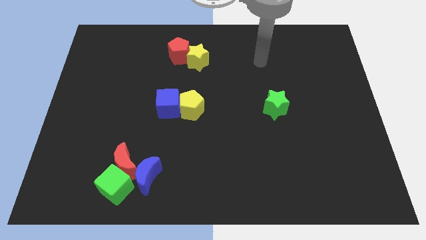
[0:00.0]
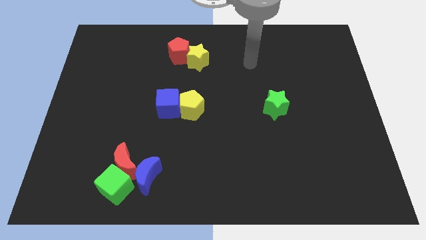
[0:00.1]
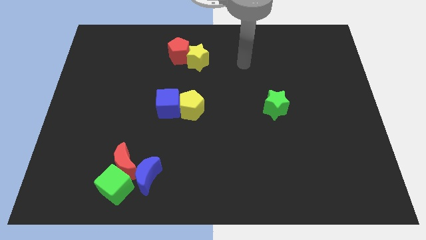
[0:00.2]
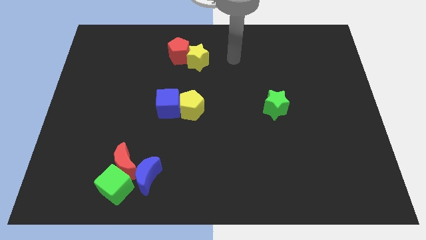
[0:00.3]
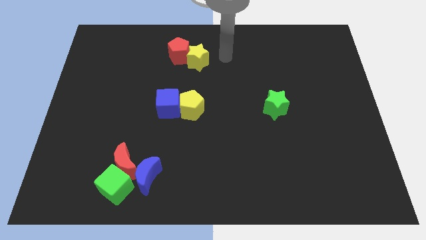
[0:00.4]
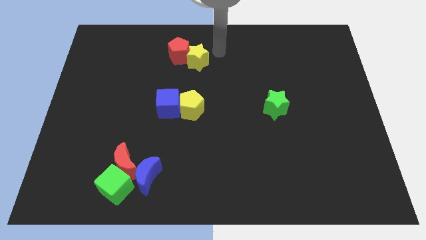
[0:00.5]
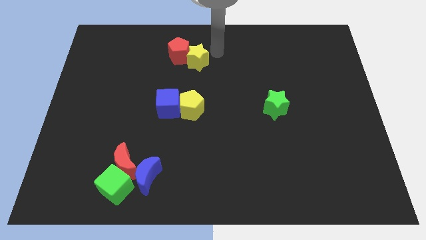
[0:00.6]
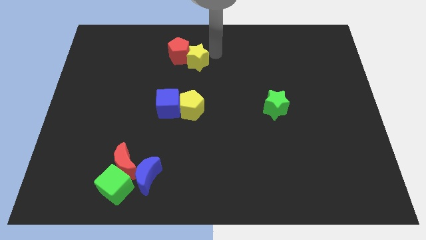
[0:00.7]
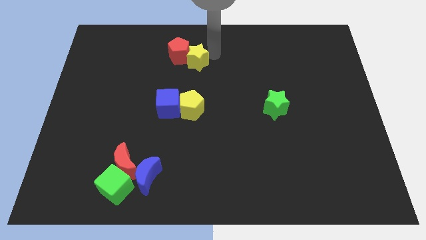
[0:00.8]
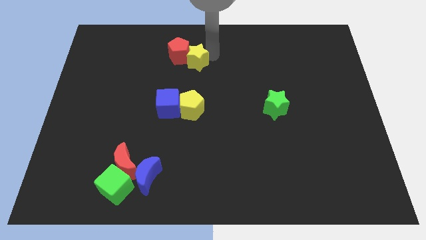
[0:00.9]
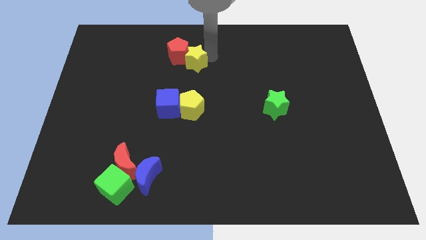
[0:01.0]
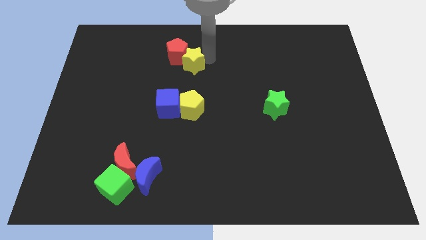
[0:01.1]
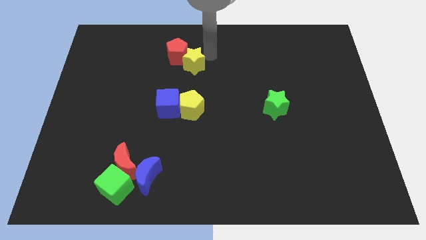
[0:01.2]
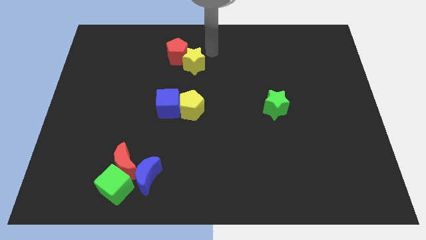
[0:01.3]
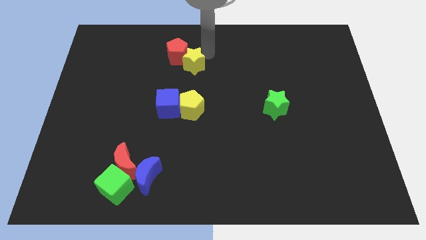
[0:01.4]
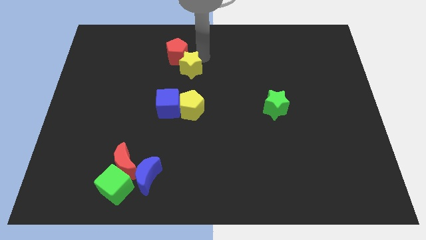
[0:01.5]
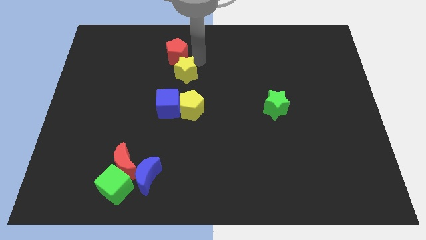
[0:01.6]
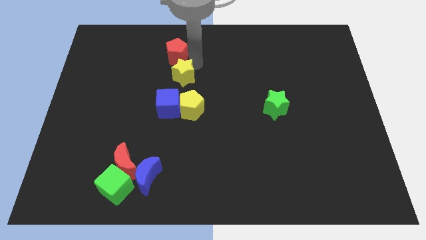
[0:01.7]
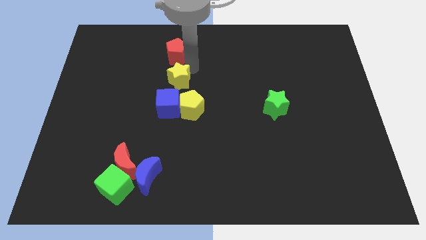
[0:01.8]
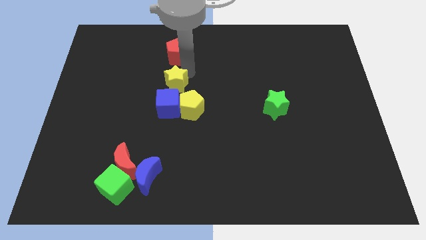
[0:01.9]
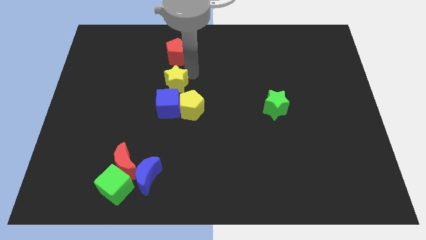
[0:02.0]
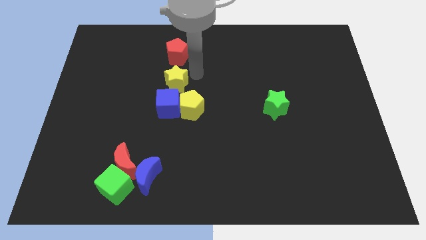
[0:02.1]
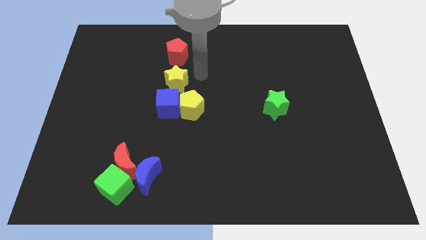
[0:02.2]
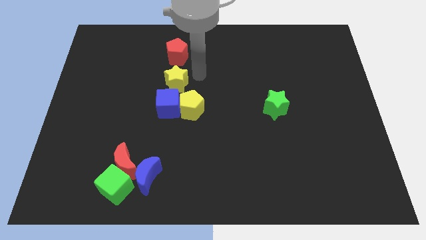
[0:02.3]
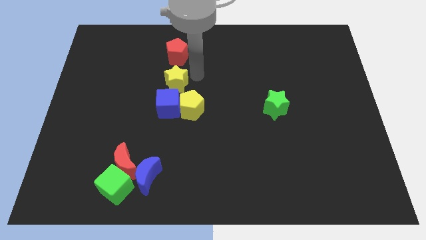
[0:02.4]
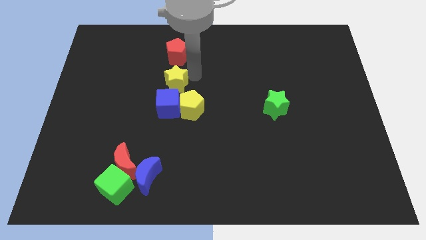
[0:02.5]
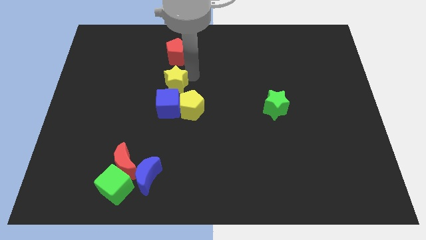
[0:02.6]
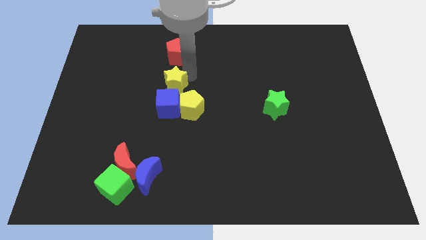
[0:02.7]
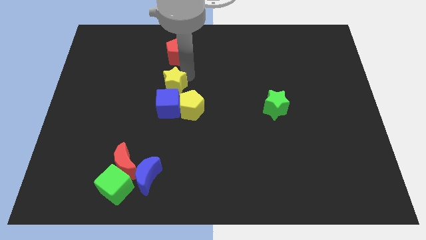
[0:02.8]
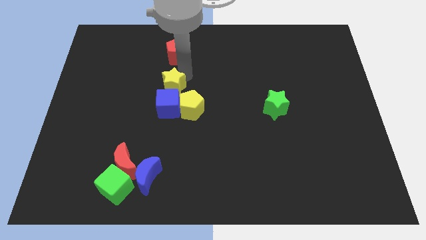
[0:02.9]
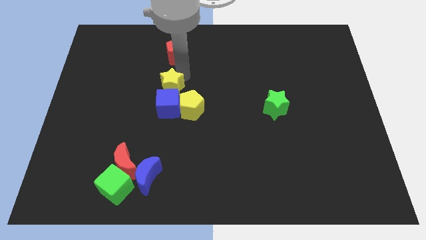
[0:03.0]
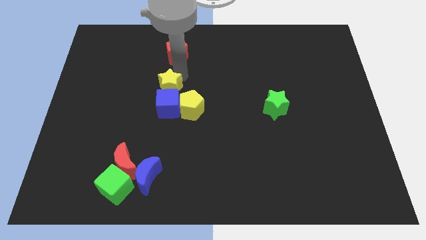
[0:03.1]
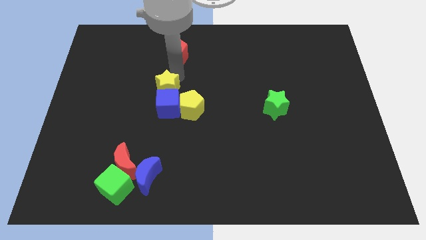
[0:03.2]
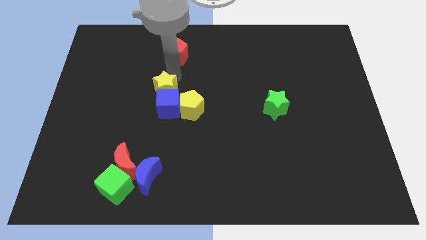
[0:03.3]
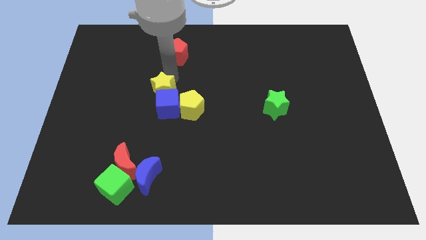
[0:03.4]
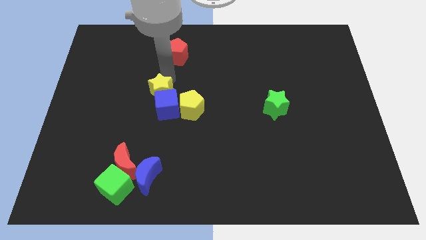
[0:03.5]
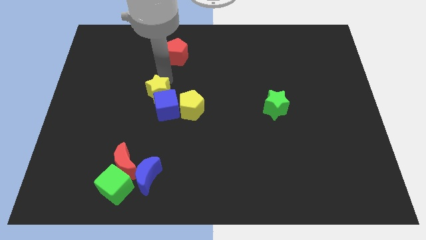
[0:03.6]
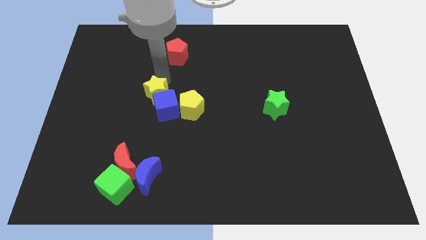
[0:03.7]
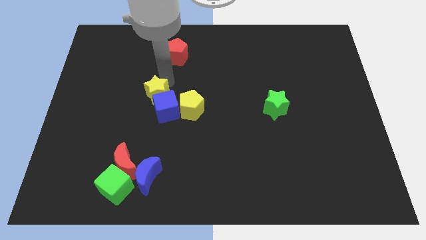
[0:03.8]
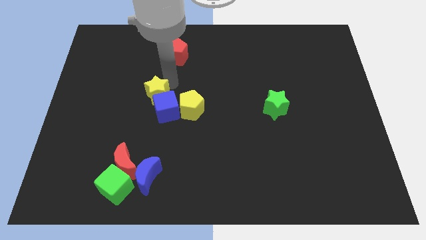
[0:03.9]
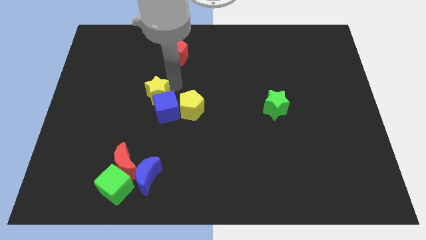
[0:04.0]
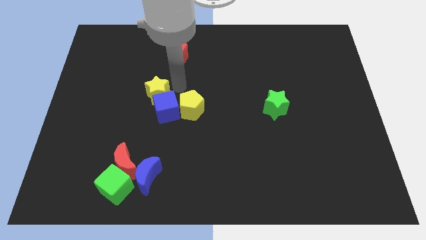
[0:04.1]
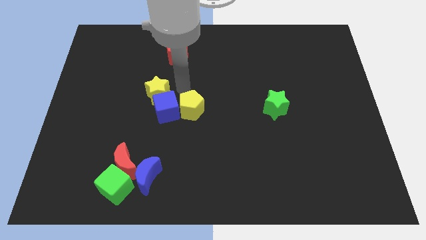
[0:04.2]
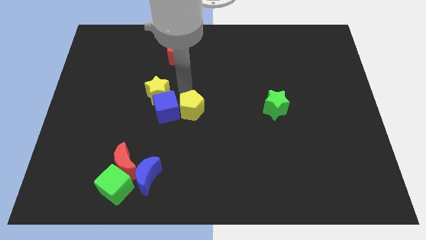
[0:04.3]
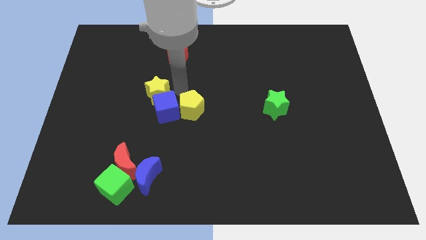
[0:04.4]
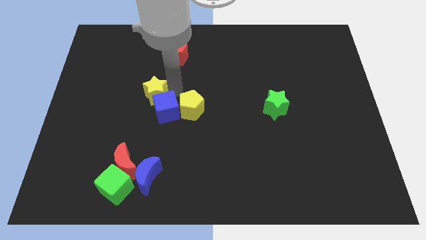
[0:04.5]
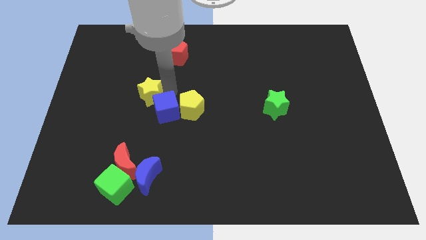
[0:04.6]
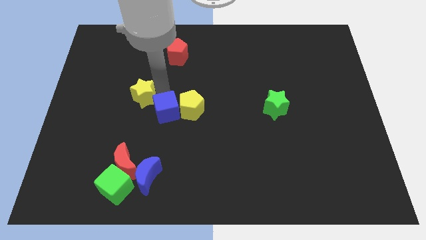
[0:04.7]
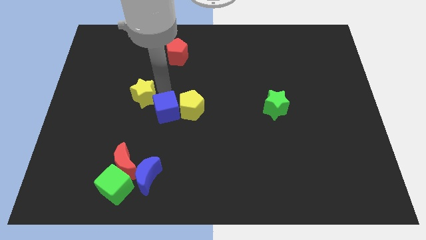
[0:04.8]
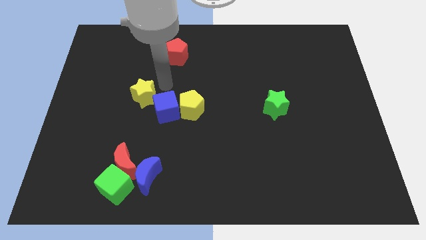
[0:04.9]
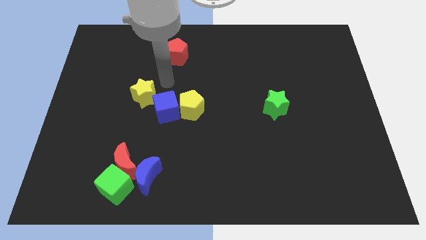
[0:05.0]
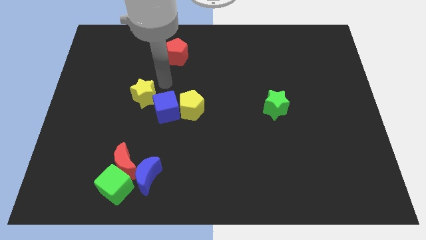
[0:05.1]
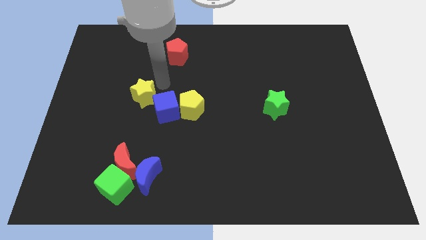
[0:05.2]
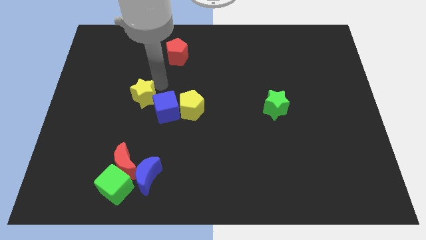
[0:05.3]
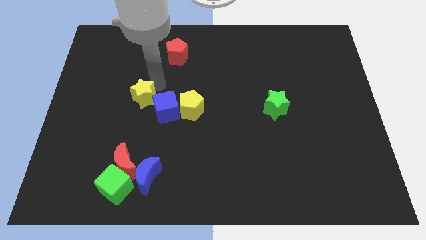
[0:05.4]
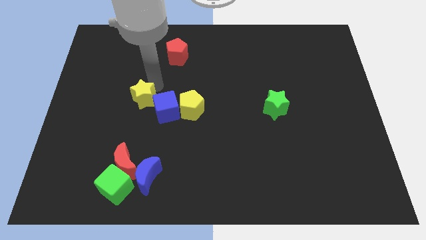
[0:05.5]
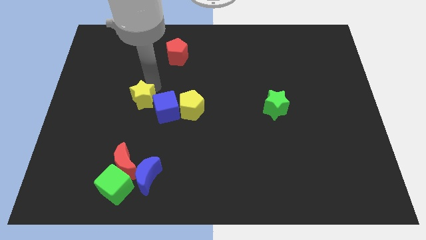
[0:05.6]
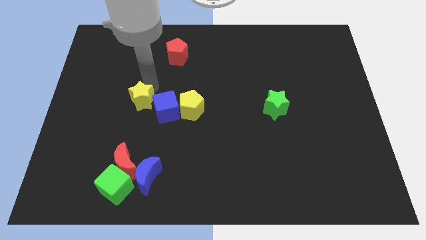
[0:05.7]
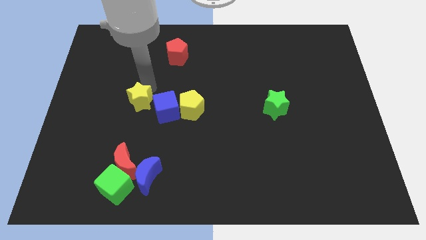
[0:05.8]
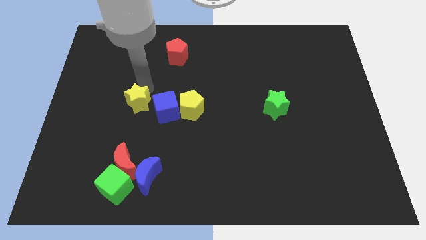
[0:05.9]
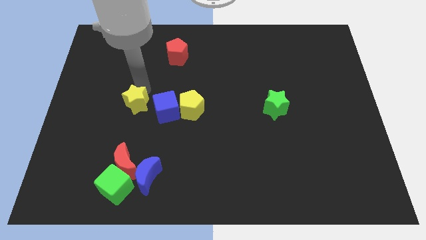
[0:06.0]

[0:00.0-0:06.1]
slide the yellow star downwards and then to the left

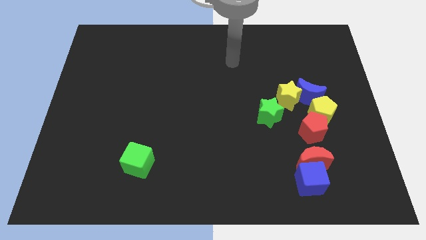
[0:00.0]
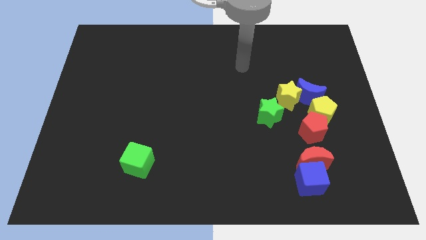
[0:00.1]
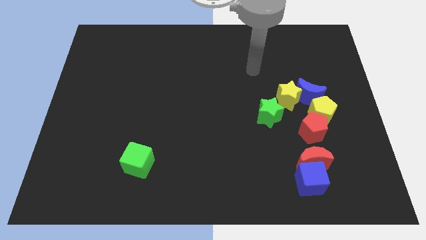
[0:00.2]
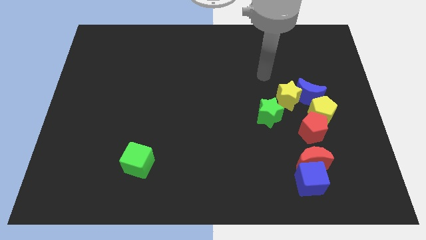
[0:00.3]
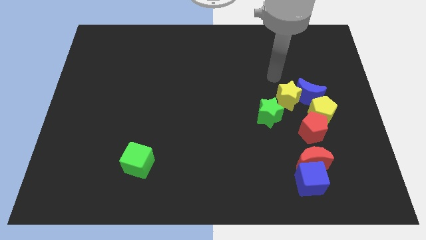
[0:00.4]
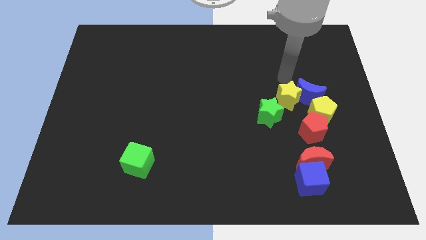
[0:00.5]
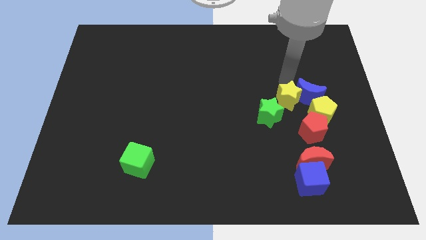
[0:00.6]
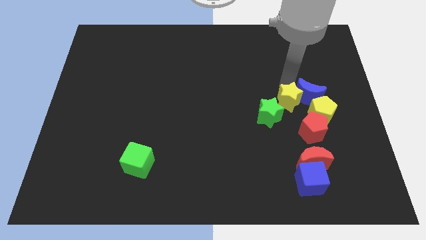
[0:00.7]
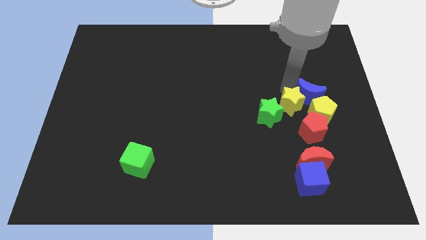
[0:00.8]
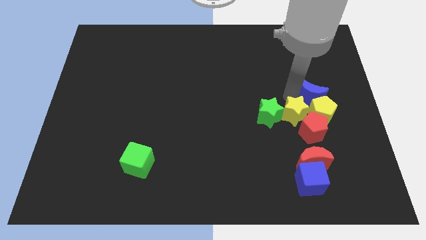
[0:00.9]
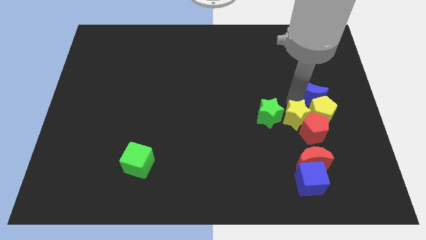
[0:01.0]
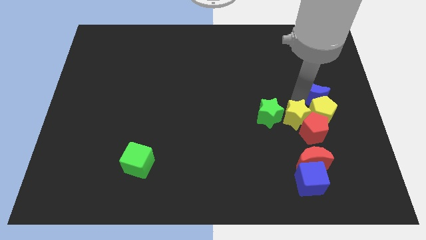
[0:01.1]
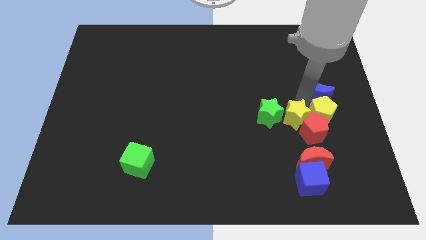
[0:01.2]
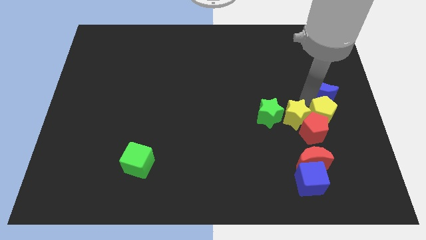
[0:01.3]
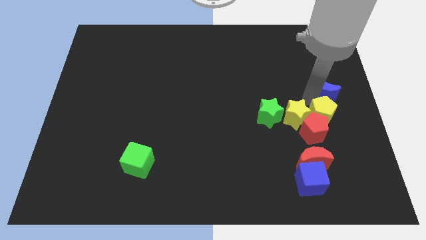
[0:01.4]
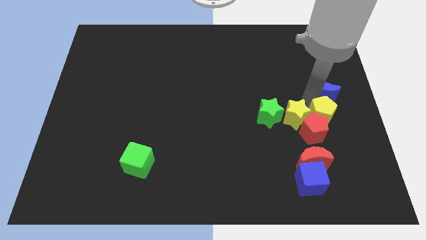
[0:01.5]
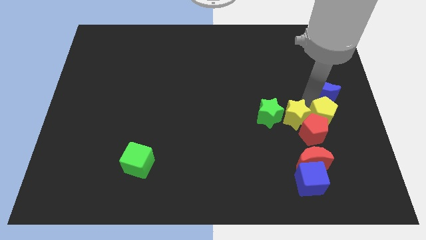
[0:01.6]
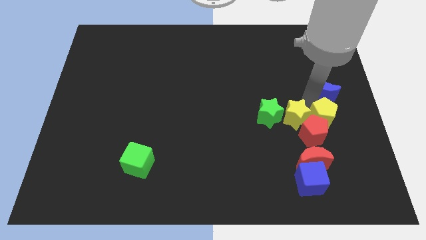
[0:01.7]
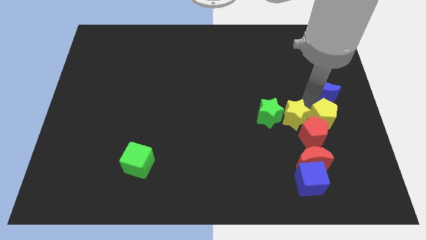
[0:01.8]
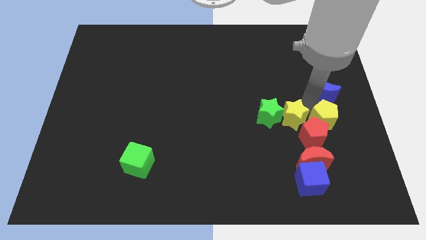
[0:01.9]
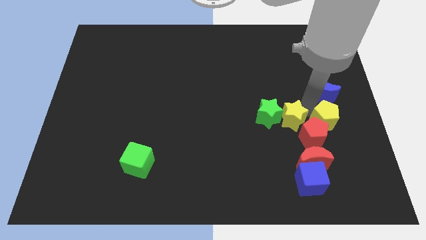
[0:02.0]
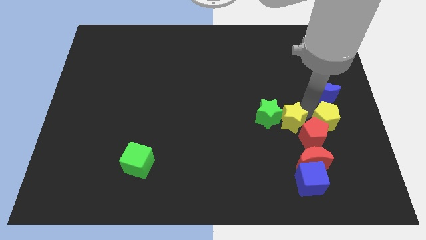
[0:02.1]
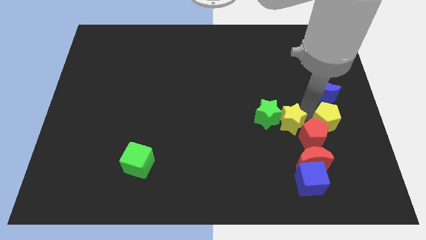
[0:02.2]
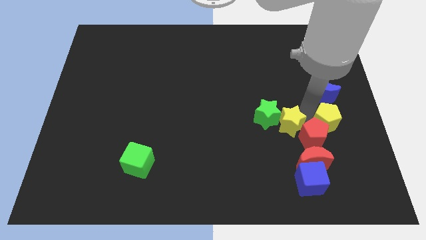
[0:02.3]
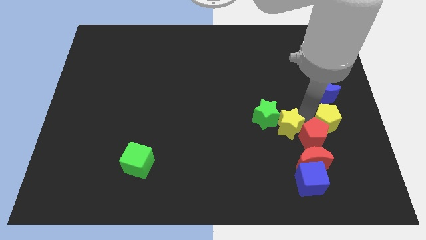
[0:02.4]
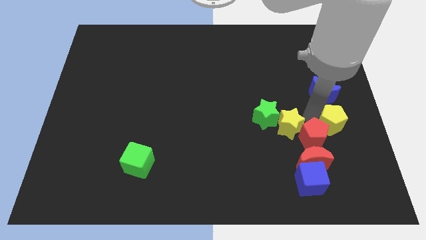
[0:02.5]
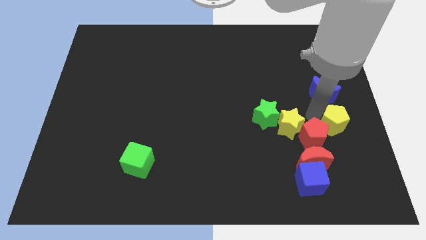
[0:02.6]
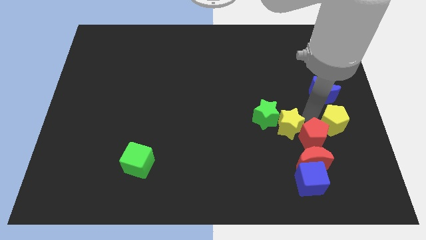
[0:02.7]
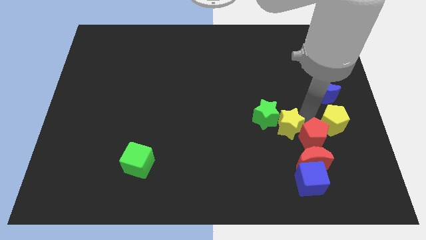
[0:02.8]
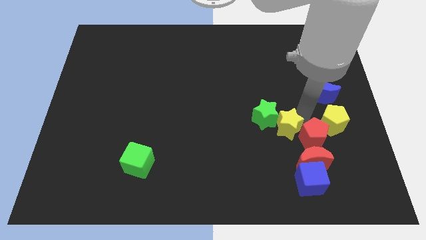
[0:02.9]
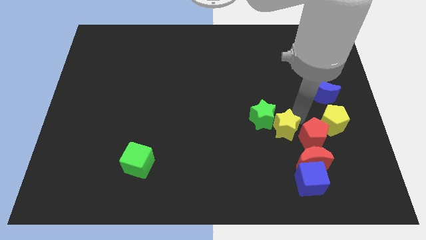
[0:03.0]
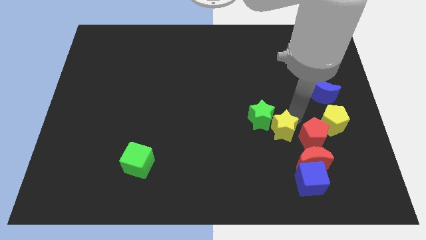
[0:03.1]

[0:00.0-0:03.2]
push the yellow star a bit down and then left
